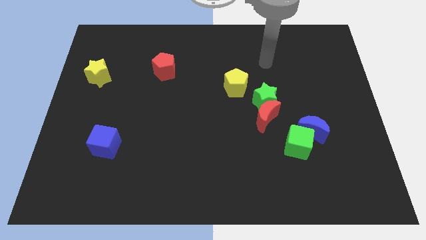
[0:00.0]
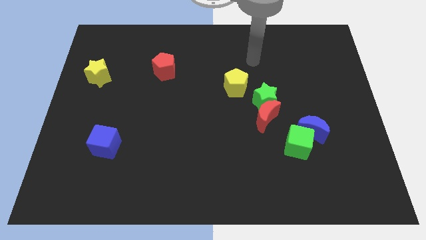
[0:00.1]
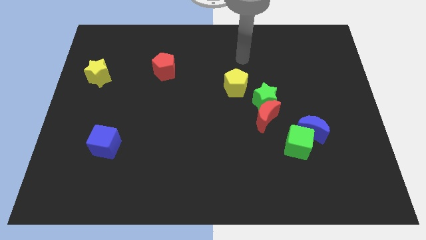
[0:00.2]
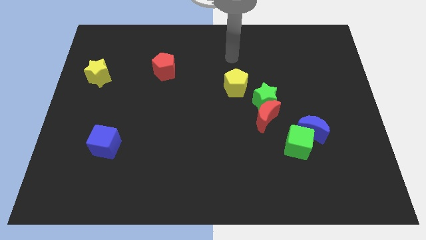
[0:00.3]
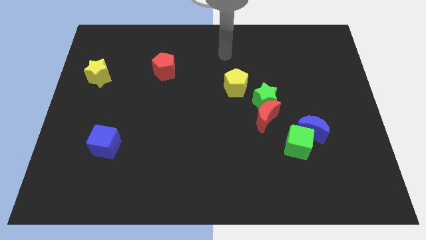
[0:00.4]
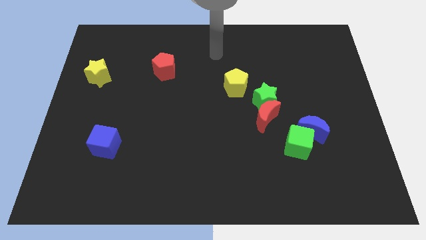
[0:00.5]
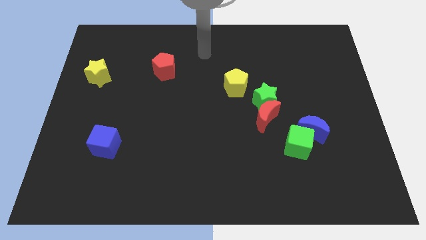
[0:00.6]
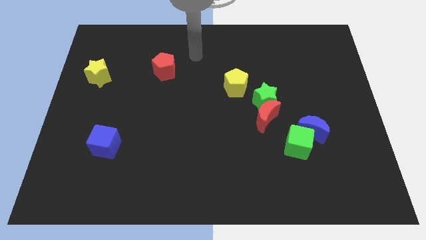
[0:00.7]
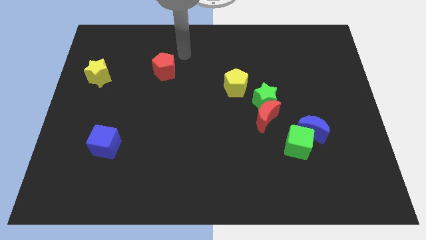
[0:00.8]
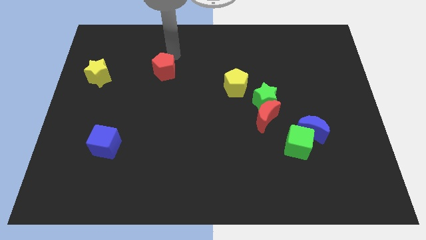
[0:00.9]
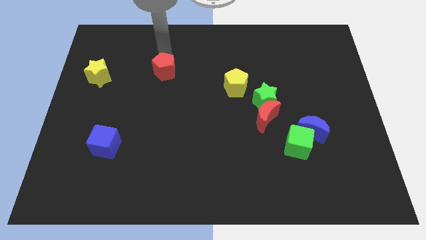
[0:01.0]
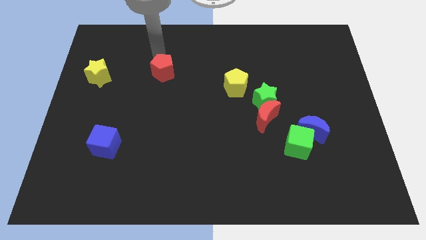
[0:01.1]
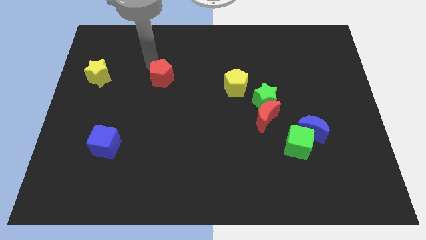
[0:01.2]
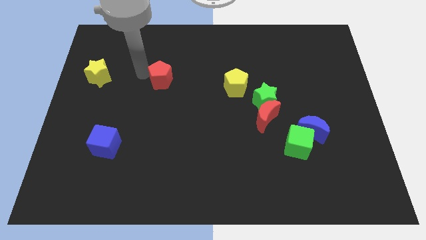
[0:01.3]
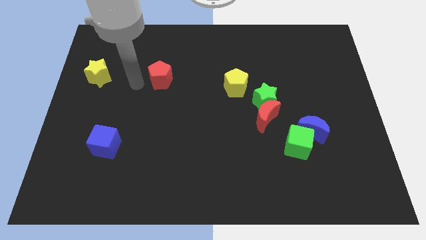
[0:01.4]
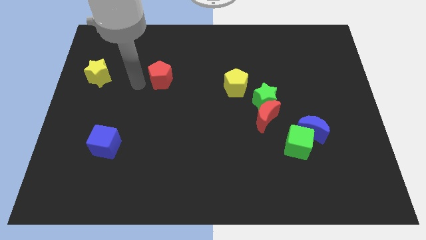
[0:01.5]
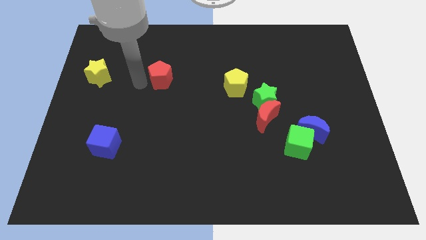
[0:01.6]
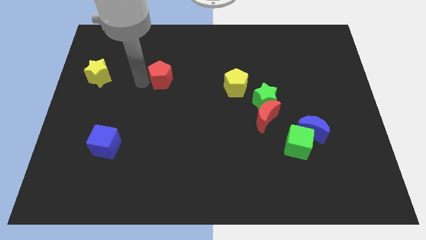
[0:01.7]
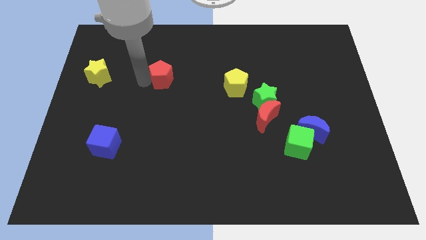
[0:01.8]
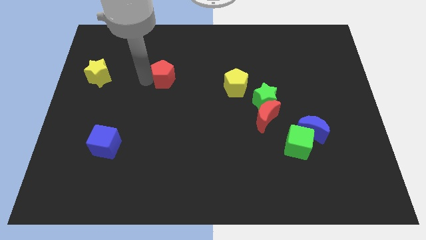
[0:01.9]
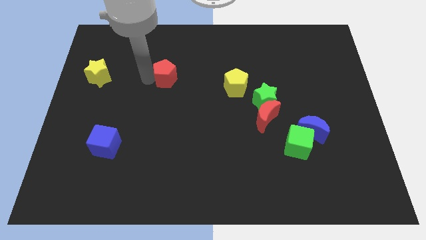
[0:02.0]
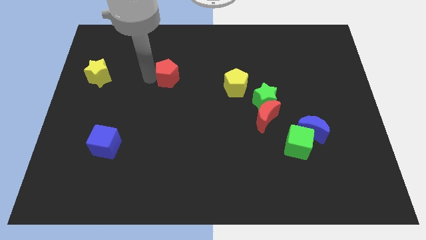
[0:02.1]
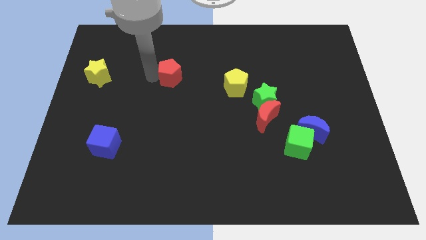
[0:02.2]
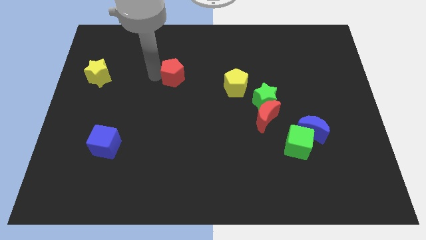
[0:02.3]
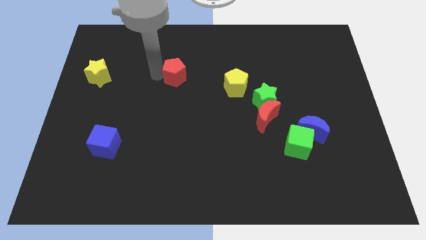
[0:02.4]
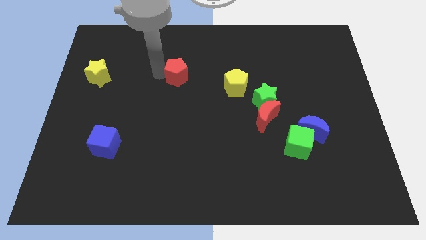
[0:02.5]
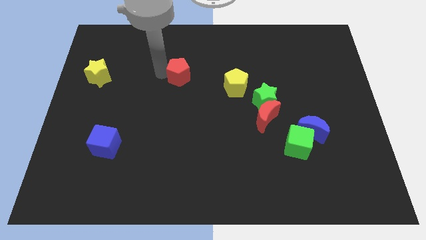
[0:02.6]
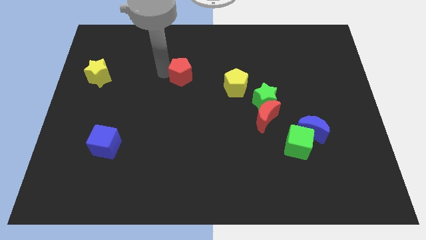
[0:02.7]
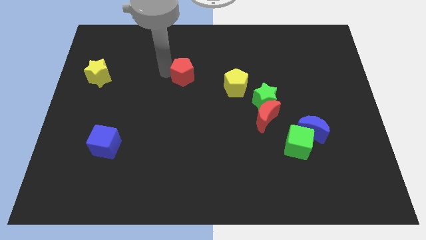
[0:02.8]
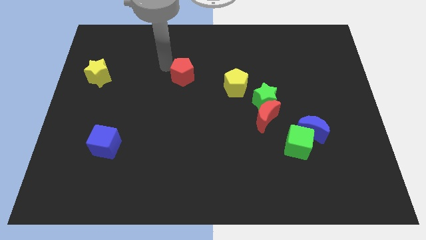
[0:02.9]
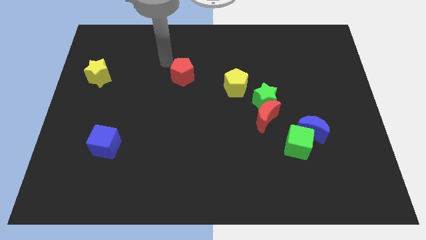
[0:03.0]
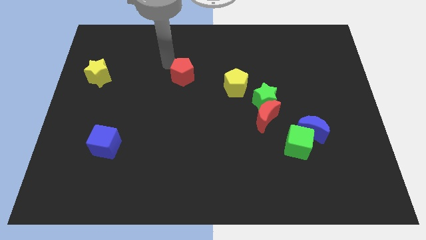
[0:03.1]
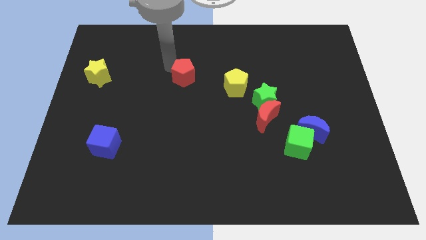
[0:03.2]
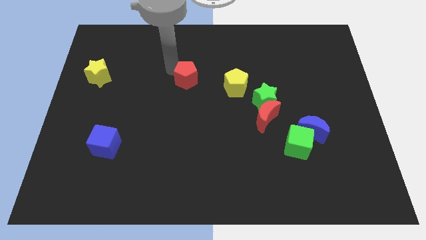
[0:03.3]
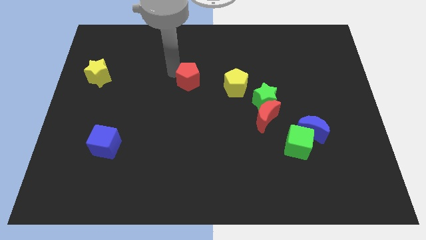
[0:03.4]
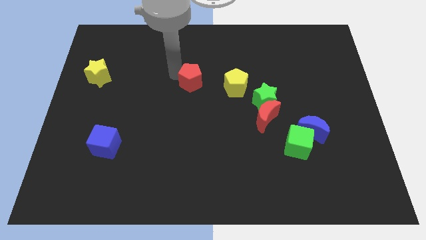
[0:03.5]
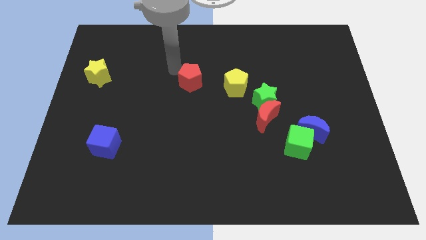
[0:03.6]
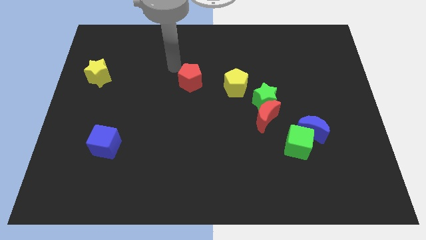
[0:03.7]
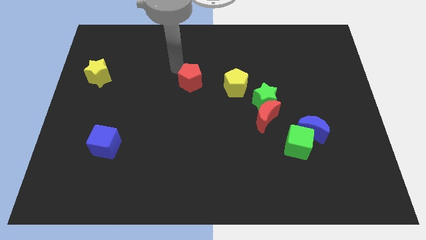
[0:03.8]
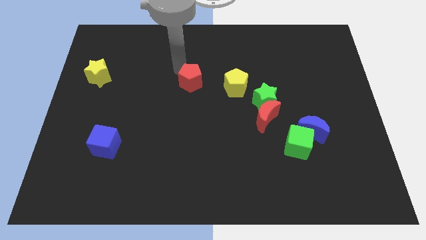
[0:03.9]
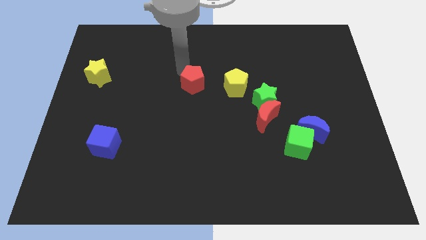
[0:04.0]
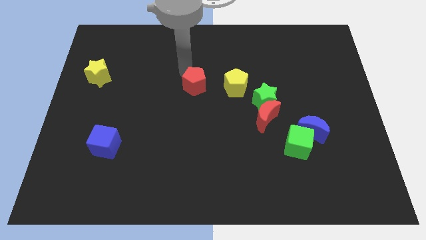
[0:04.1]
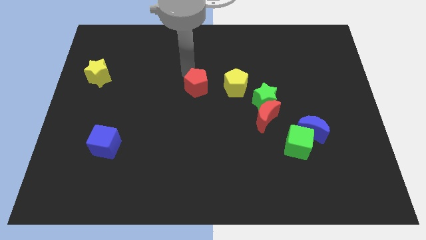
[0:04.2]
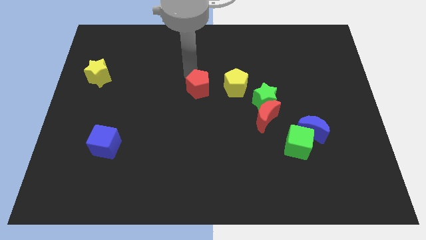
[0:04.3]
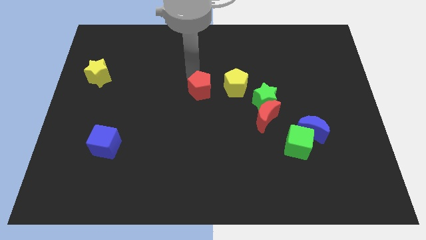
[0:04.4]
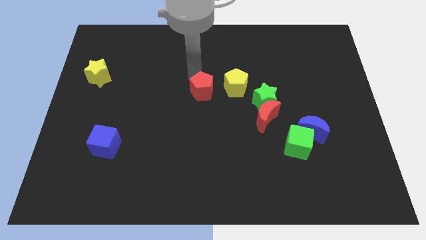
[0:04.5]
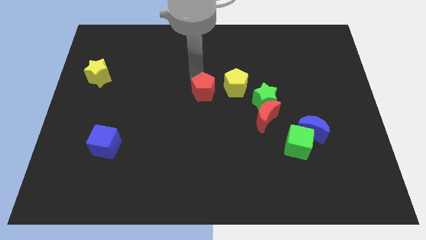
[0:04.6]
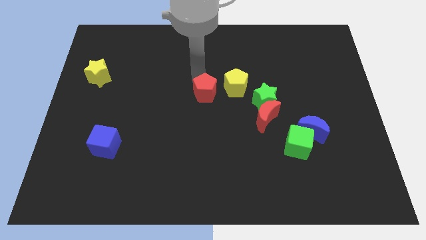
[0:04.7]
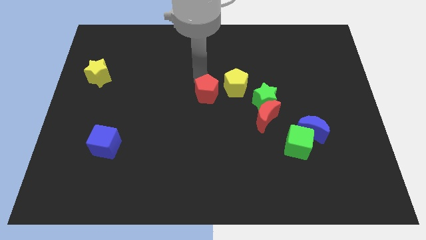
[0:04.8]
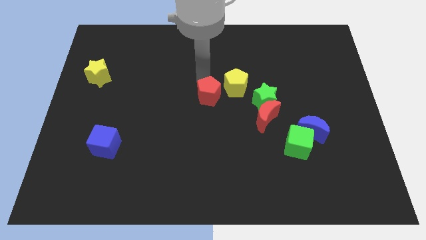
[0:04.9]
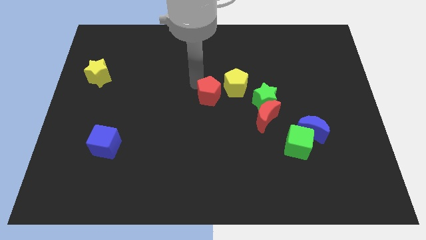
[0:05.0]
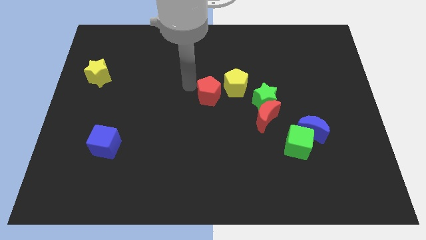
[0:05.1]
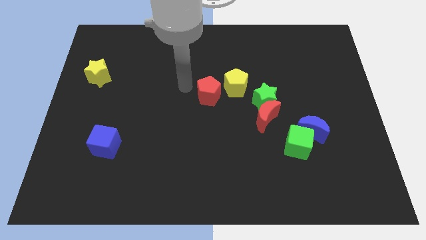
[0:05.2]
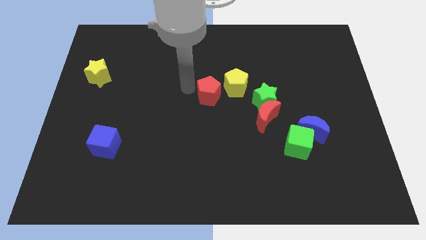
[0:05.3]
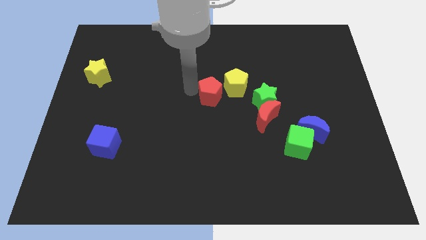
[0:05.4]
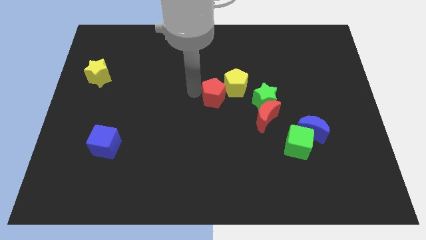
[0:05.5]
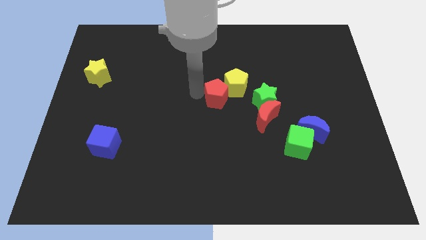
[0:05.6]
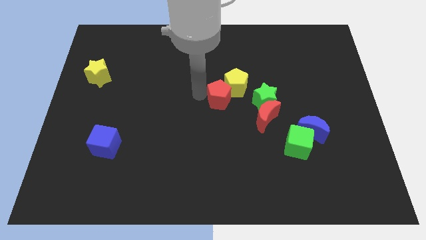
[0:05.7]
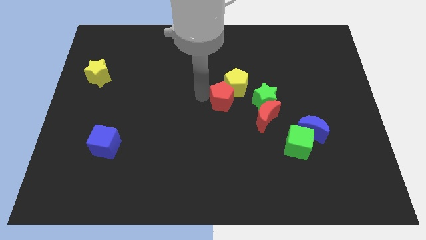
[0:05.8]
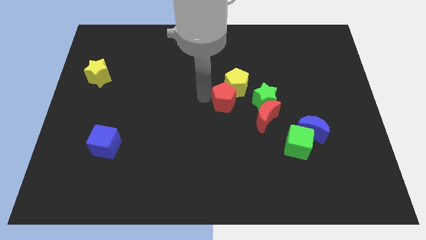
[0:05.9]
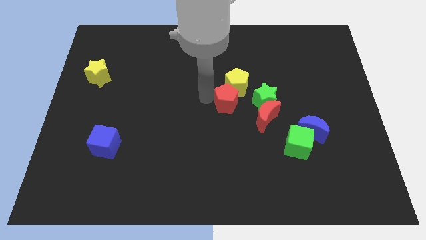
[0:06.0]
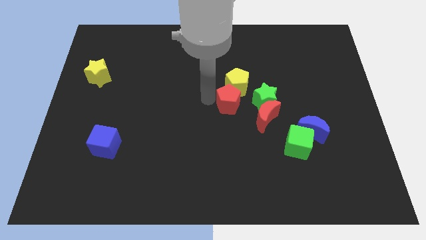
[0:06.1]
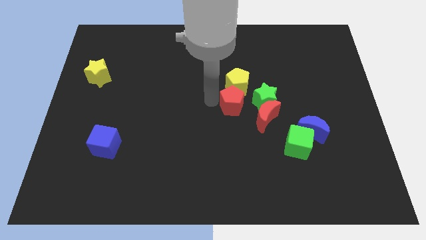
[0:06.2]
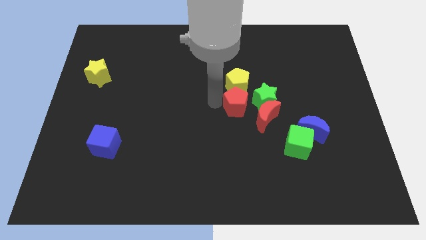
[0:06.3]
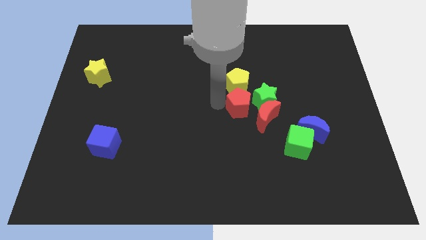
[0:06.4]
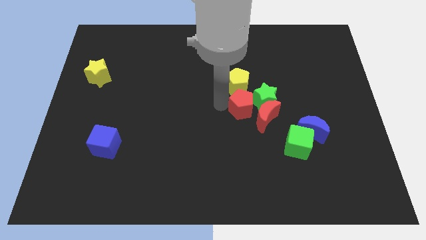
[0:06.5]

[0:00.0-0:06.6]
slide the red pentagon close to the green star

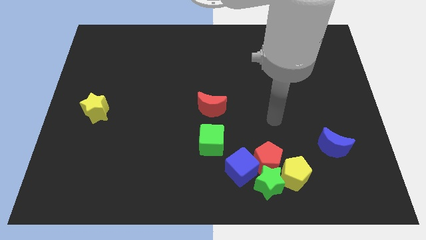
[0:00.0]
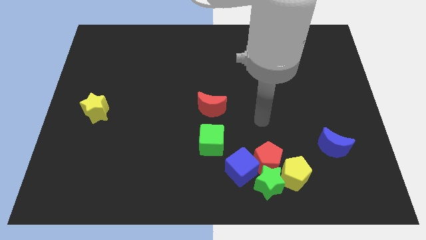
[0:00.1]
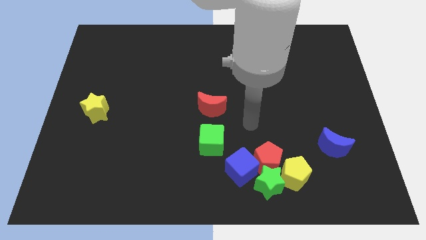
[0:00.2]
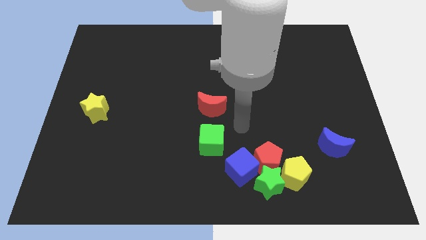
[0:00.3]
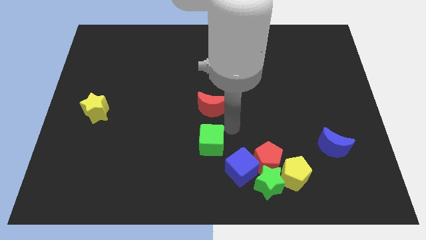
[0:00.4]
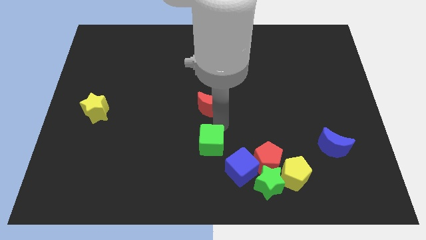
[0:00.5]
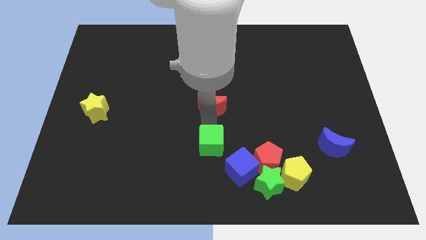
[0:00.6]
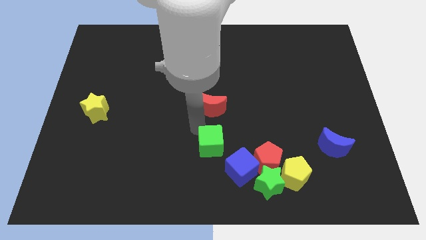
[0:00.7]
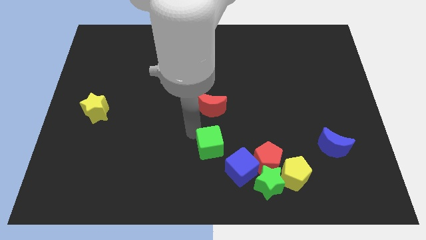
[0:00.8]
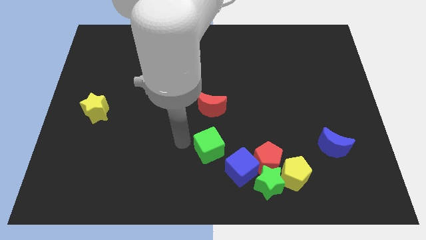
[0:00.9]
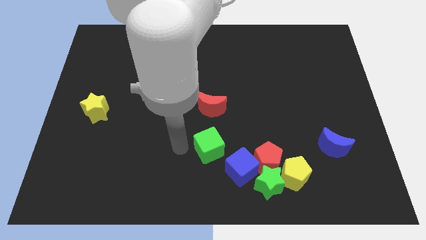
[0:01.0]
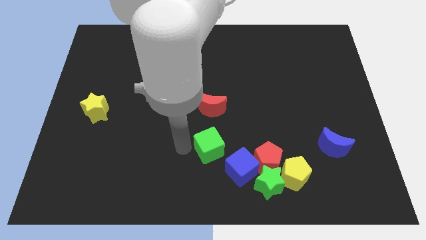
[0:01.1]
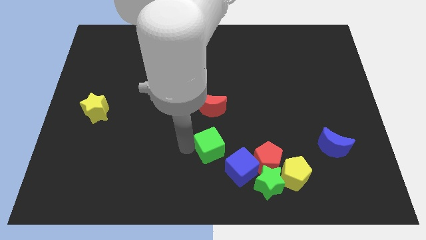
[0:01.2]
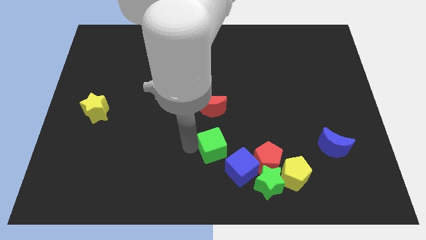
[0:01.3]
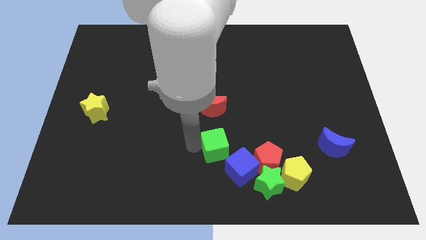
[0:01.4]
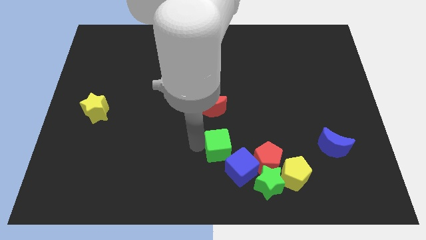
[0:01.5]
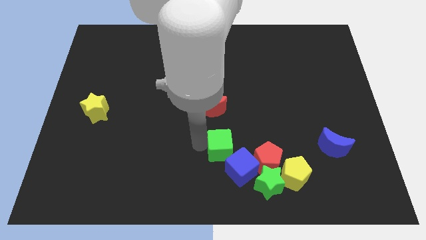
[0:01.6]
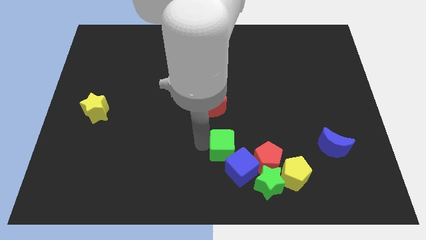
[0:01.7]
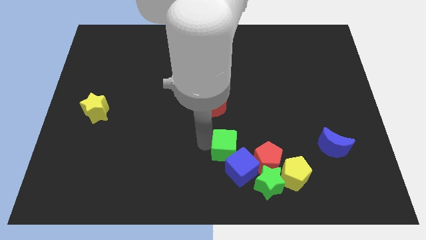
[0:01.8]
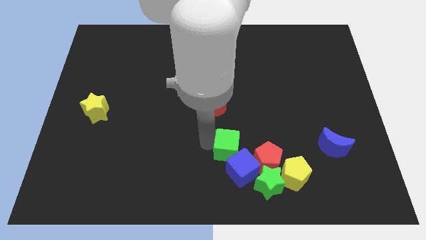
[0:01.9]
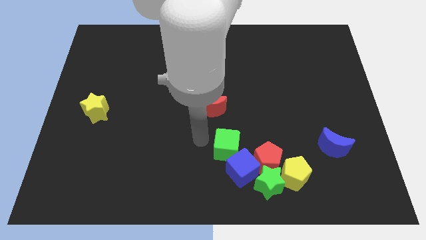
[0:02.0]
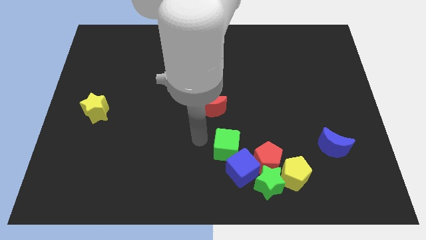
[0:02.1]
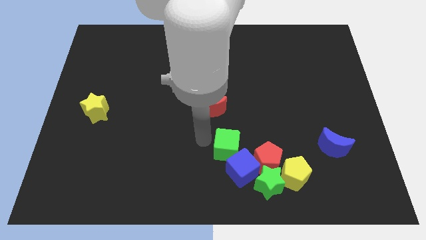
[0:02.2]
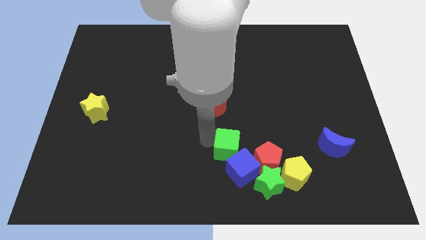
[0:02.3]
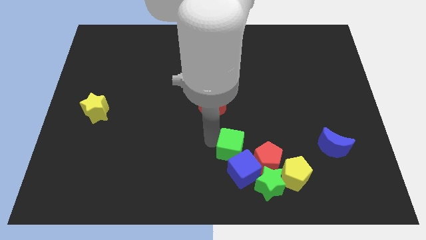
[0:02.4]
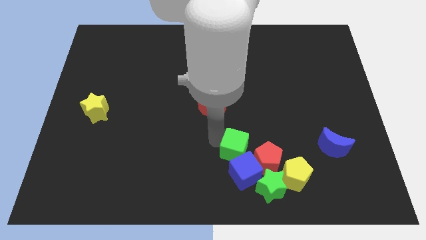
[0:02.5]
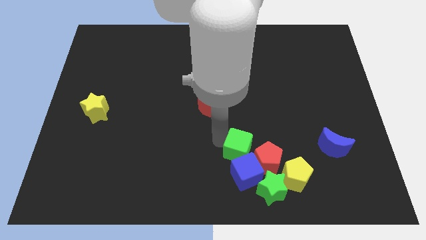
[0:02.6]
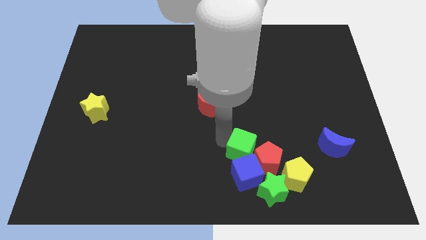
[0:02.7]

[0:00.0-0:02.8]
push the green cube to the red pentagon
